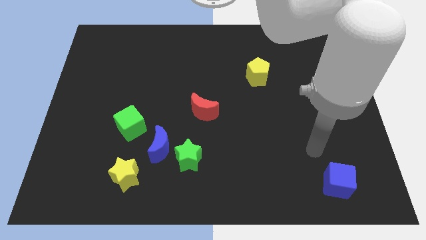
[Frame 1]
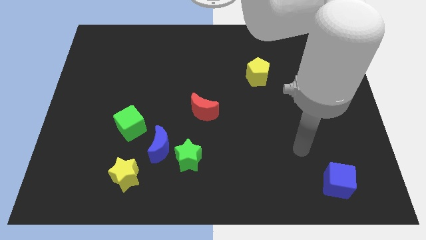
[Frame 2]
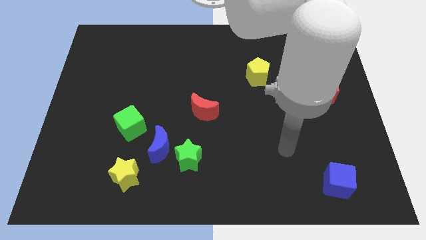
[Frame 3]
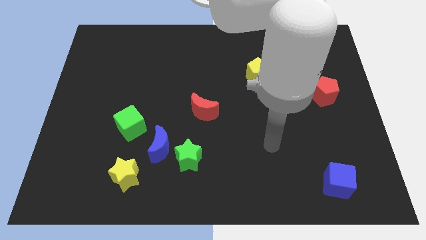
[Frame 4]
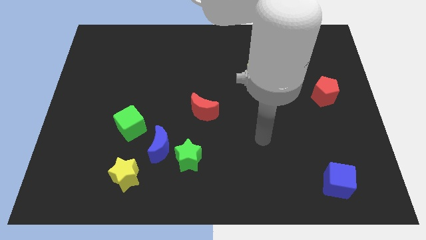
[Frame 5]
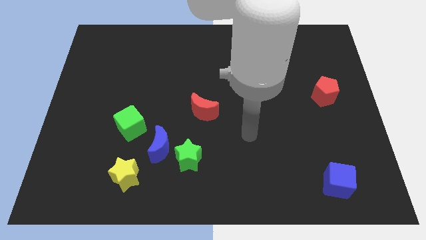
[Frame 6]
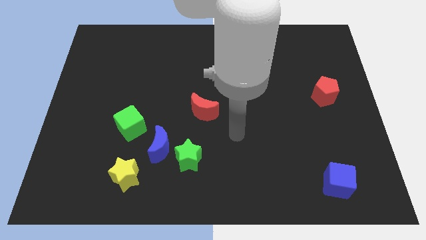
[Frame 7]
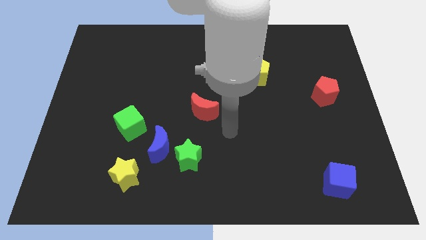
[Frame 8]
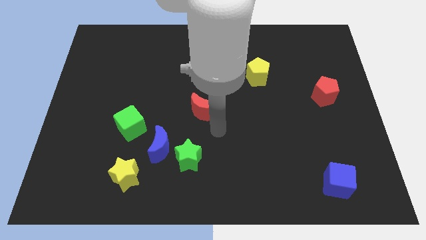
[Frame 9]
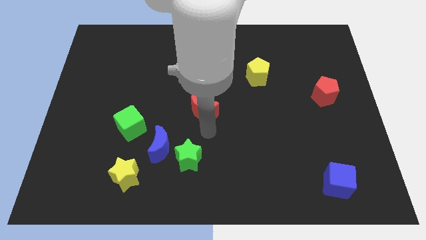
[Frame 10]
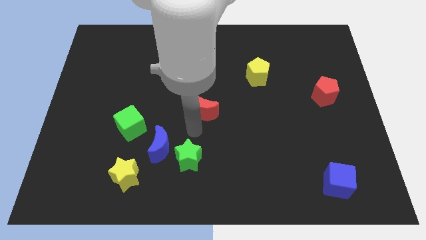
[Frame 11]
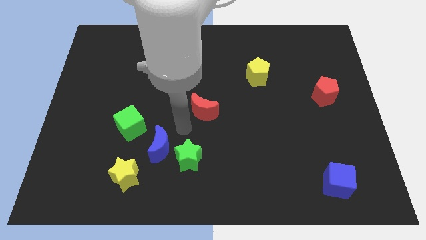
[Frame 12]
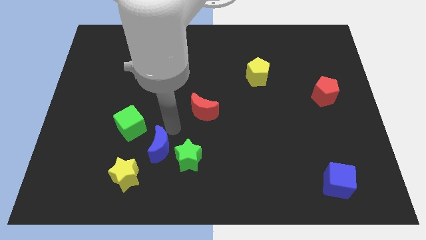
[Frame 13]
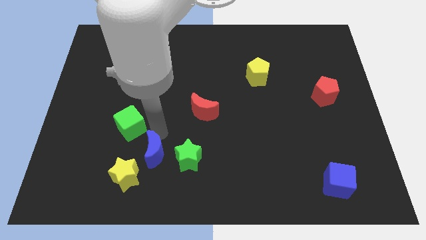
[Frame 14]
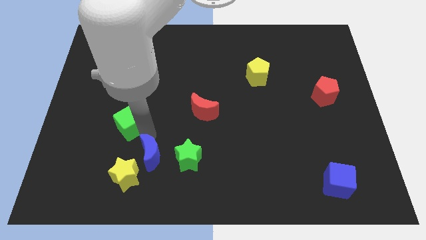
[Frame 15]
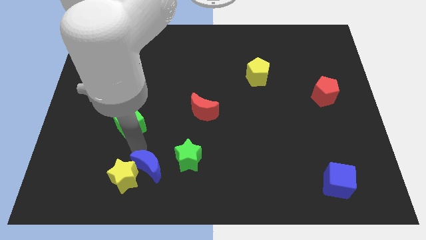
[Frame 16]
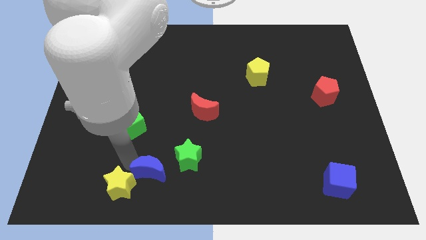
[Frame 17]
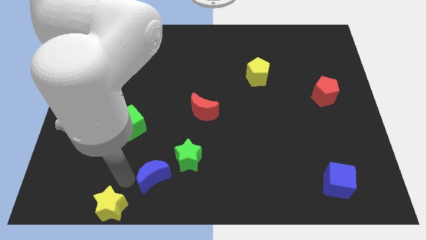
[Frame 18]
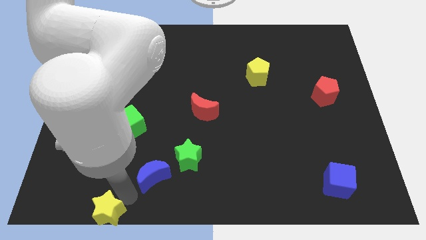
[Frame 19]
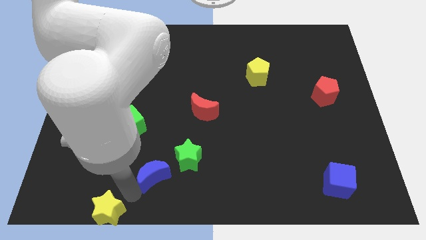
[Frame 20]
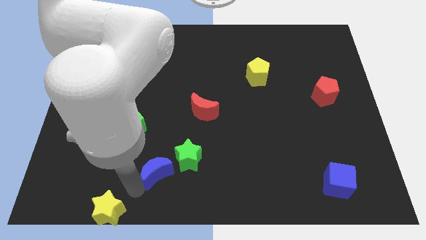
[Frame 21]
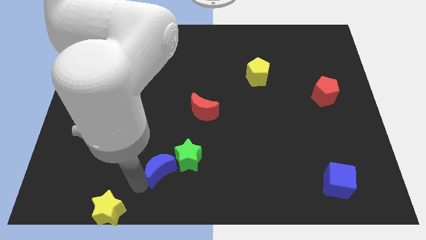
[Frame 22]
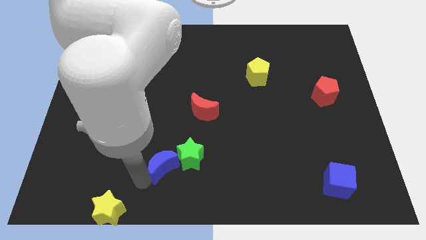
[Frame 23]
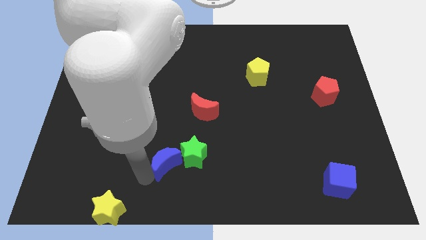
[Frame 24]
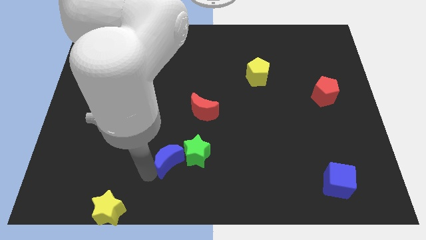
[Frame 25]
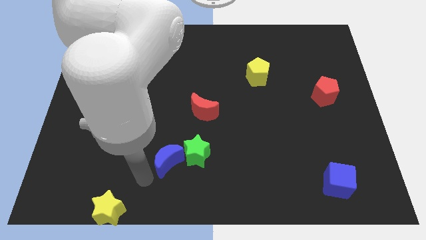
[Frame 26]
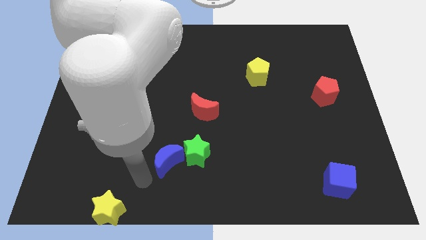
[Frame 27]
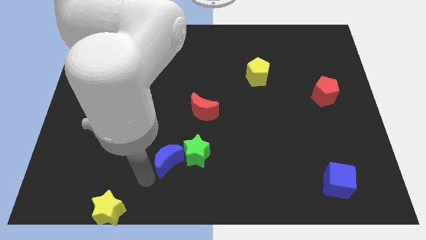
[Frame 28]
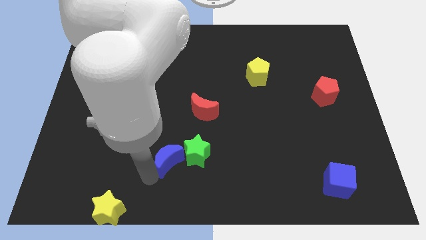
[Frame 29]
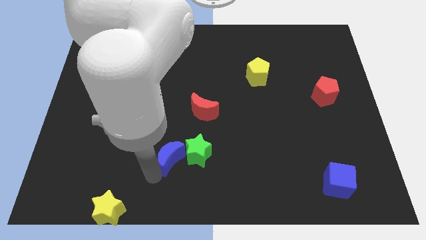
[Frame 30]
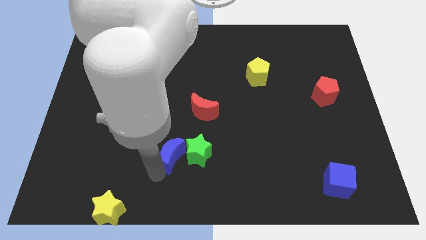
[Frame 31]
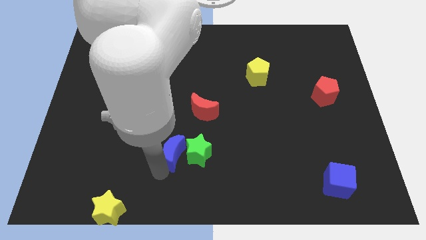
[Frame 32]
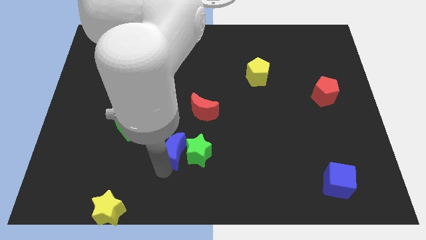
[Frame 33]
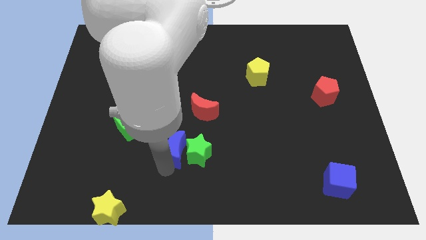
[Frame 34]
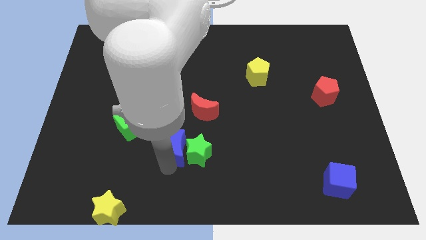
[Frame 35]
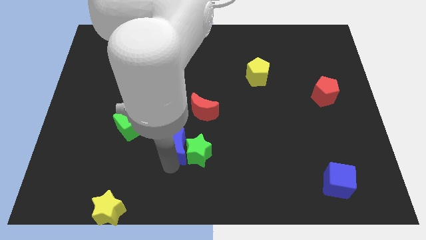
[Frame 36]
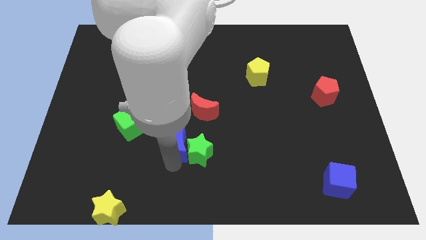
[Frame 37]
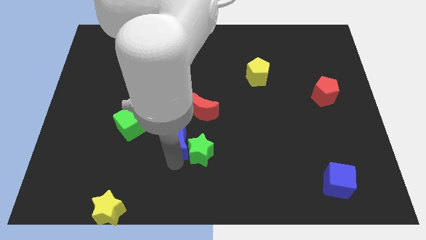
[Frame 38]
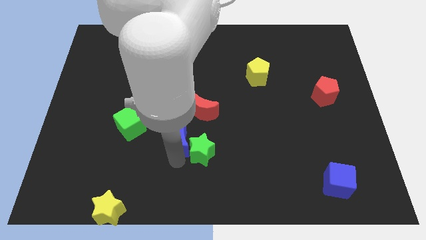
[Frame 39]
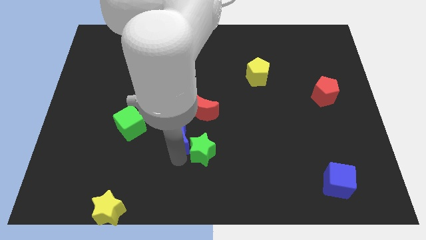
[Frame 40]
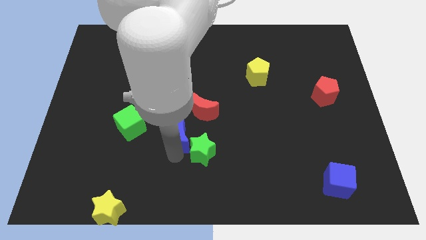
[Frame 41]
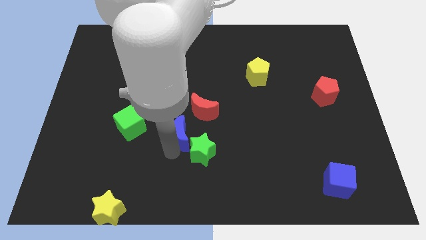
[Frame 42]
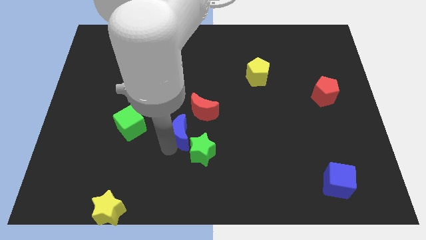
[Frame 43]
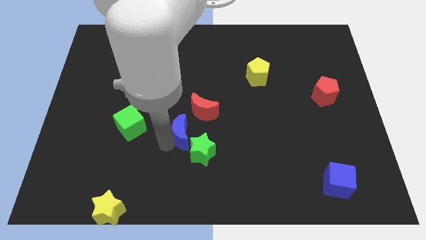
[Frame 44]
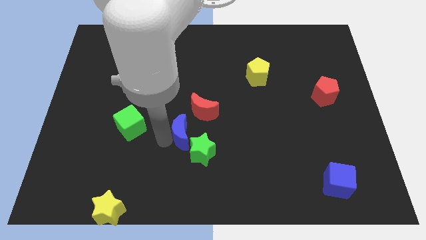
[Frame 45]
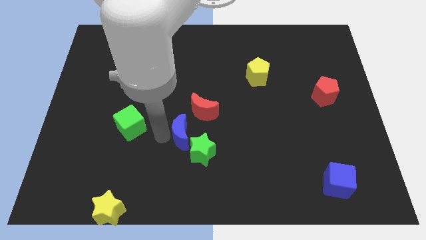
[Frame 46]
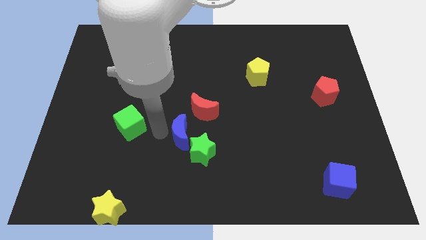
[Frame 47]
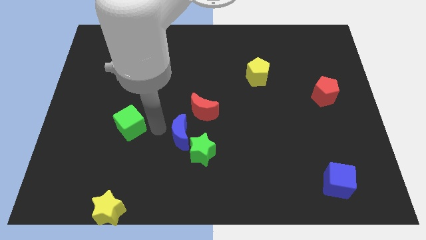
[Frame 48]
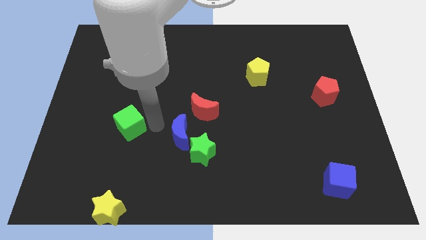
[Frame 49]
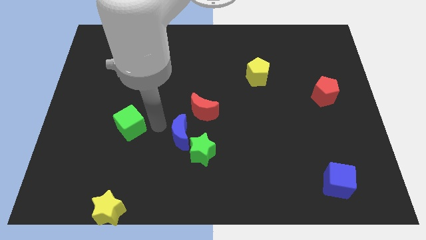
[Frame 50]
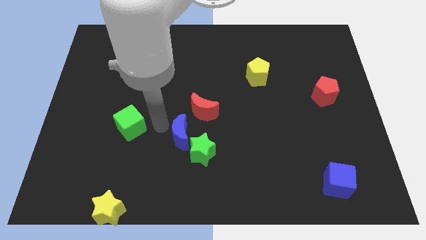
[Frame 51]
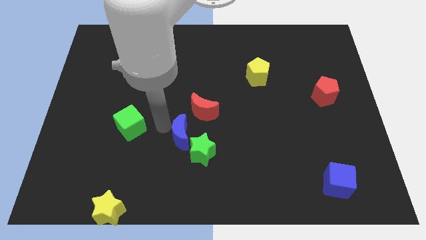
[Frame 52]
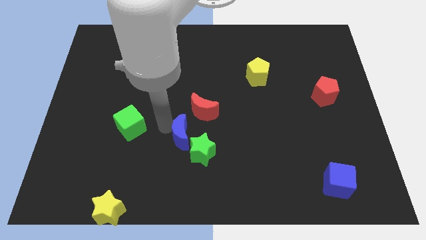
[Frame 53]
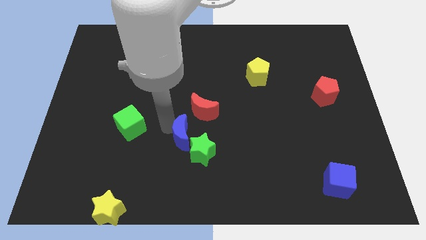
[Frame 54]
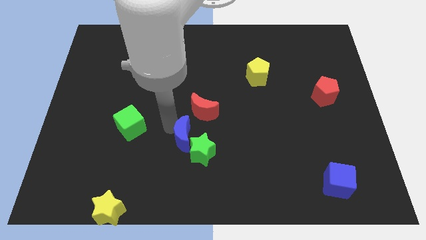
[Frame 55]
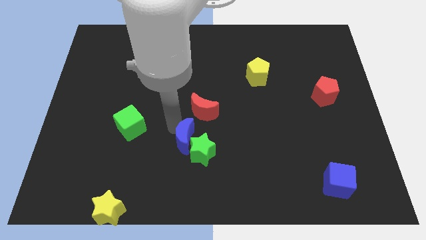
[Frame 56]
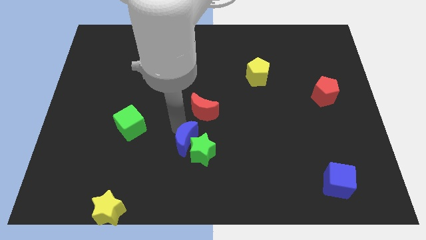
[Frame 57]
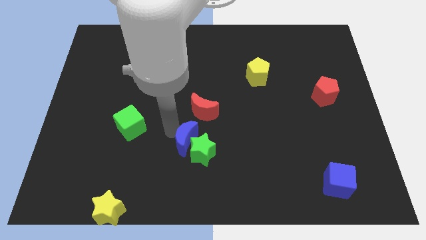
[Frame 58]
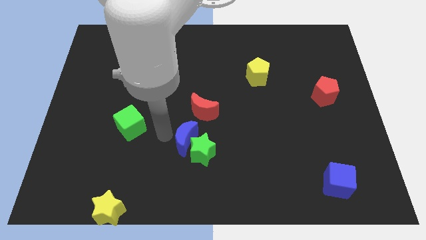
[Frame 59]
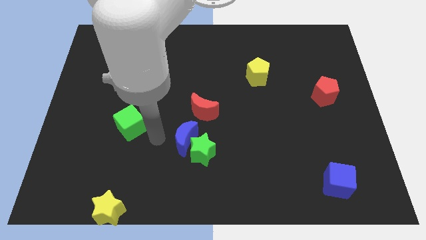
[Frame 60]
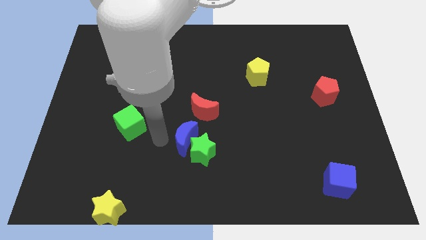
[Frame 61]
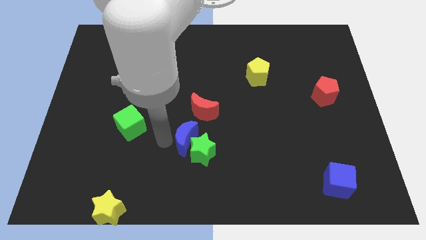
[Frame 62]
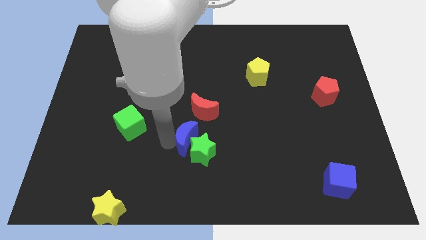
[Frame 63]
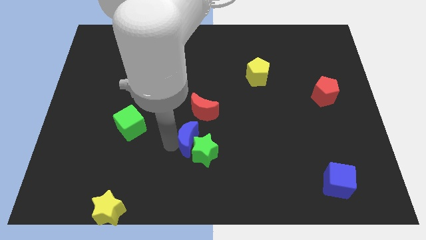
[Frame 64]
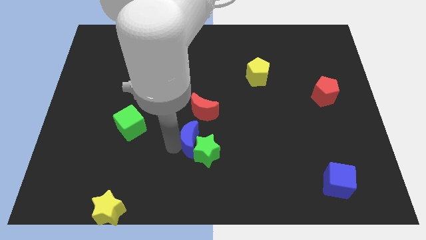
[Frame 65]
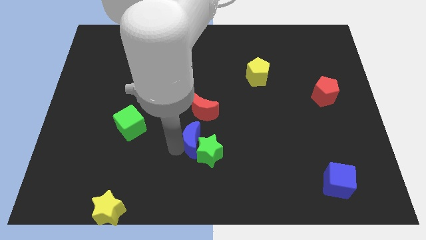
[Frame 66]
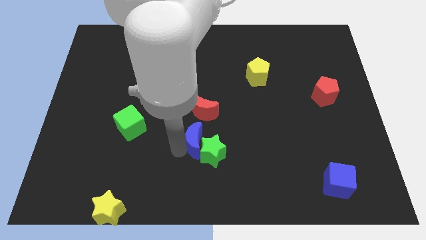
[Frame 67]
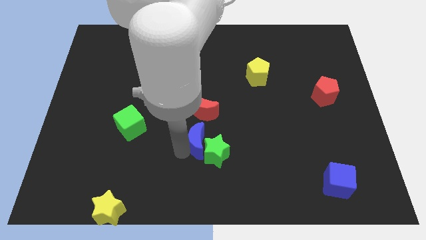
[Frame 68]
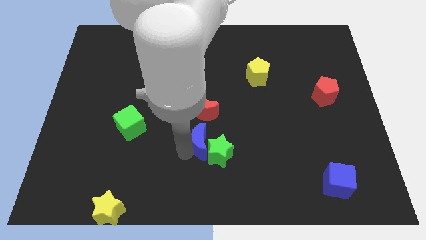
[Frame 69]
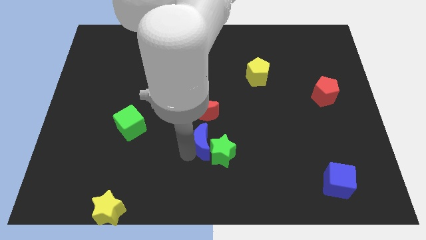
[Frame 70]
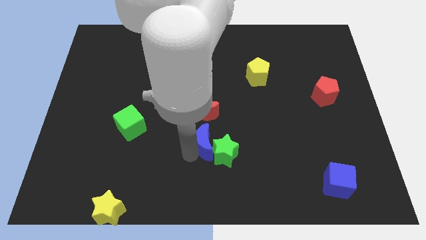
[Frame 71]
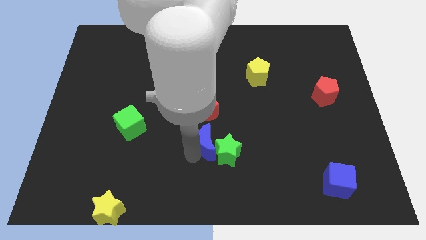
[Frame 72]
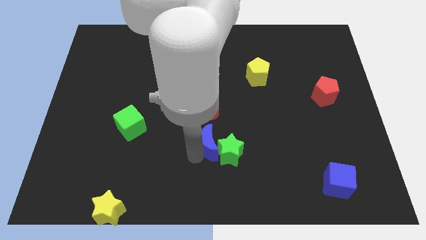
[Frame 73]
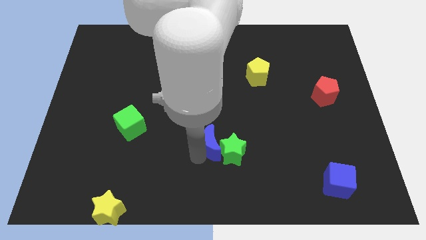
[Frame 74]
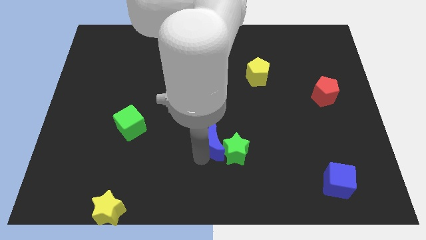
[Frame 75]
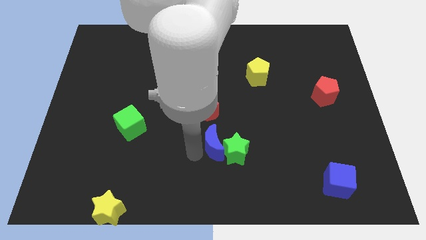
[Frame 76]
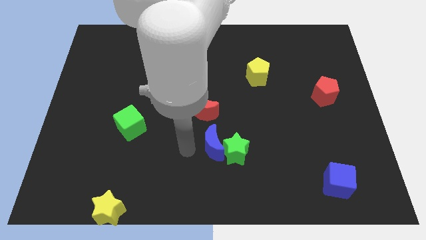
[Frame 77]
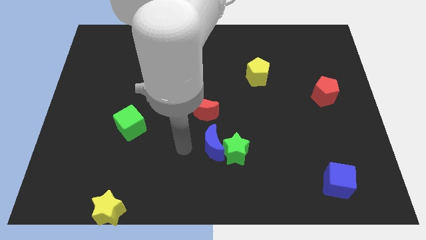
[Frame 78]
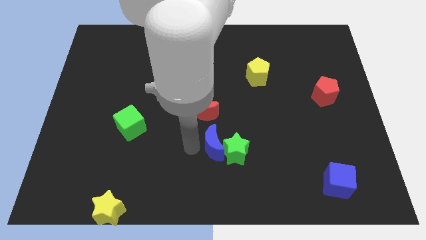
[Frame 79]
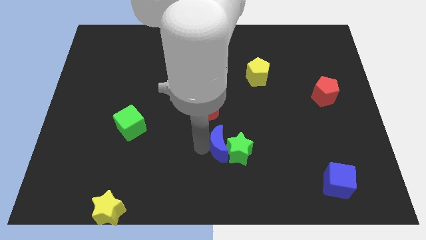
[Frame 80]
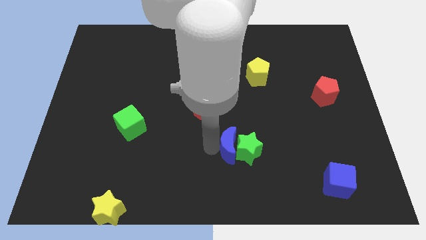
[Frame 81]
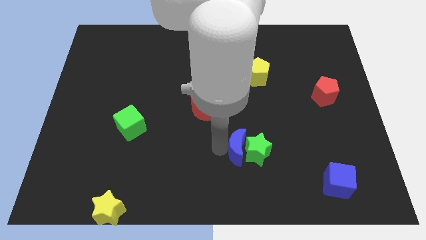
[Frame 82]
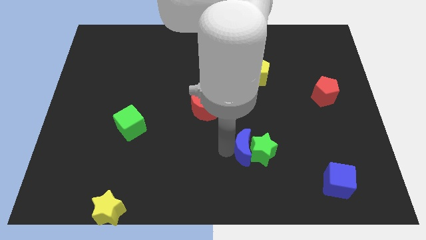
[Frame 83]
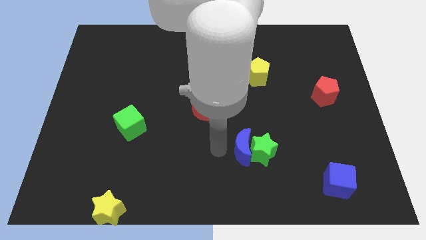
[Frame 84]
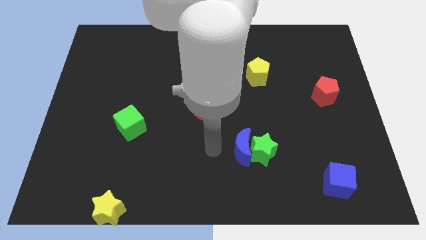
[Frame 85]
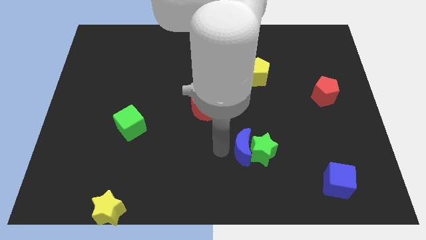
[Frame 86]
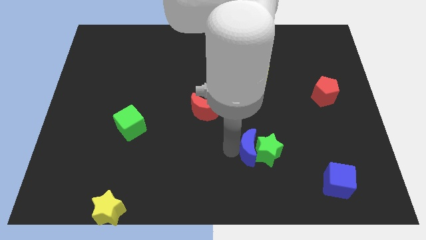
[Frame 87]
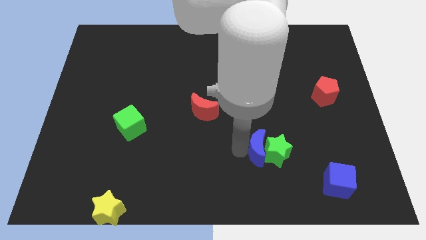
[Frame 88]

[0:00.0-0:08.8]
slide the blue moon right
